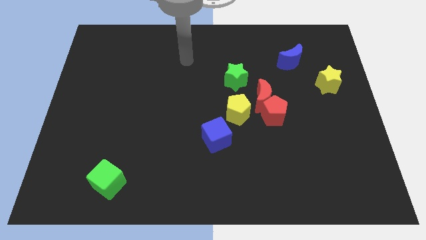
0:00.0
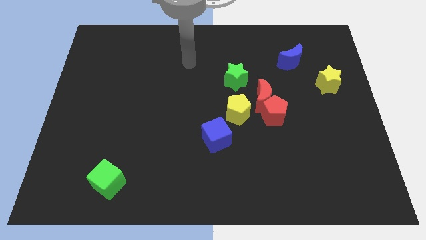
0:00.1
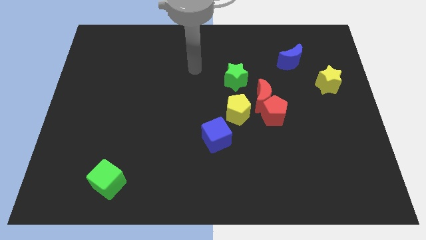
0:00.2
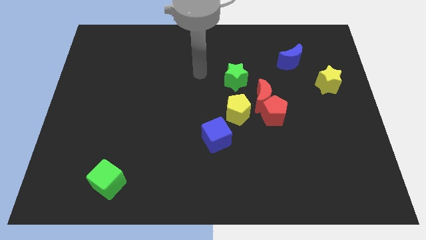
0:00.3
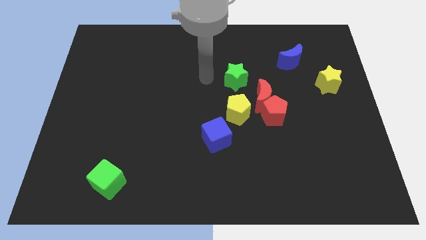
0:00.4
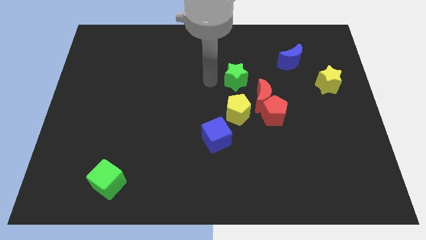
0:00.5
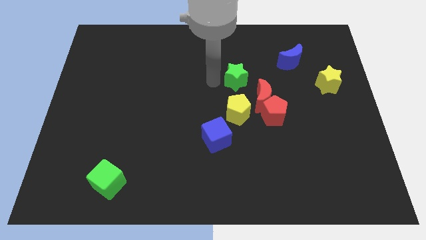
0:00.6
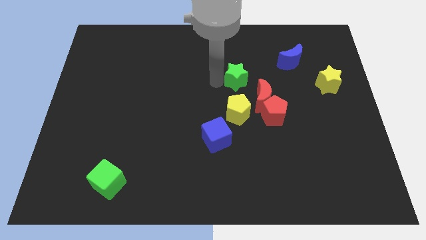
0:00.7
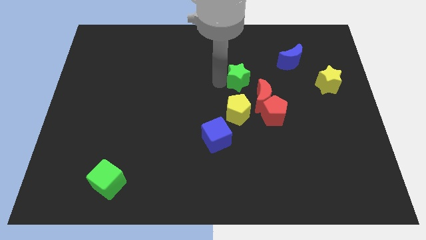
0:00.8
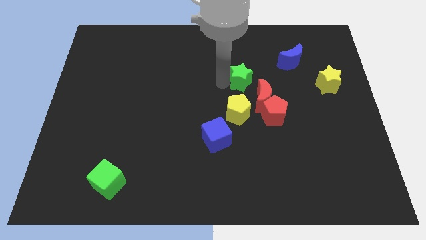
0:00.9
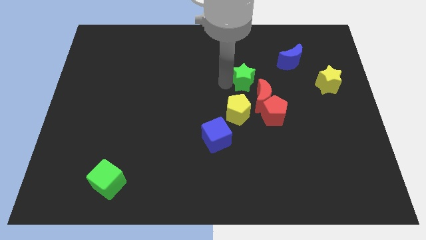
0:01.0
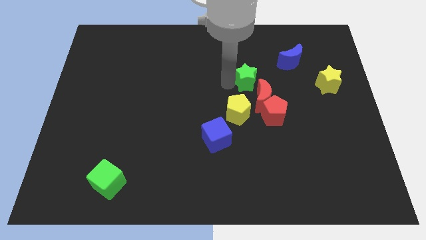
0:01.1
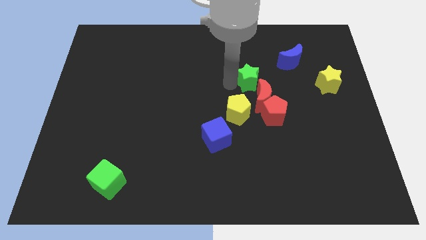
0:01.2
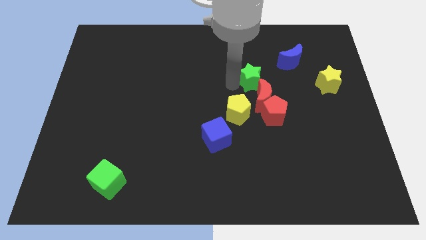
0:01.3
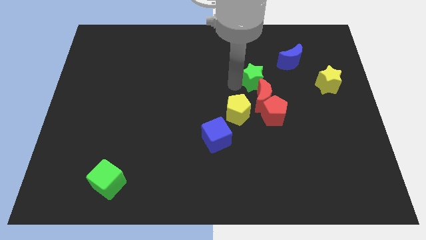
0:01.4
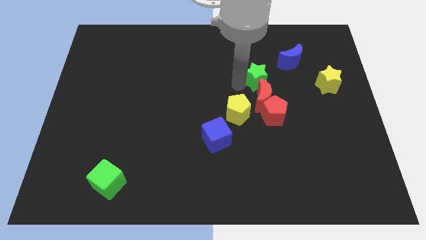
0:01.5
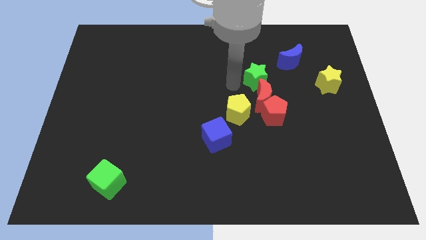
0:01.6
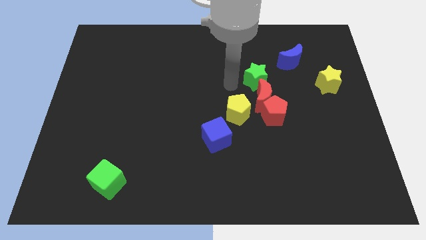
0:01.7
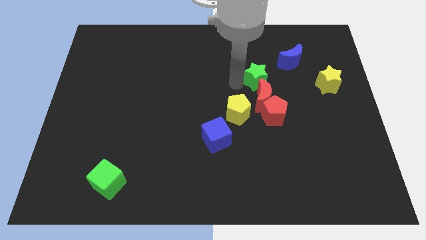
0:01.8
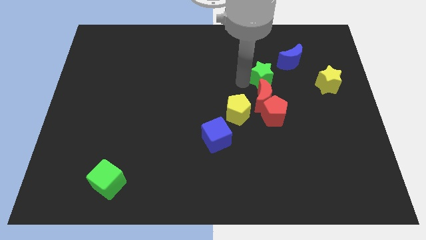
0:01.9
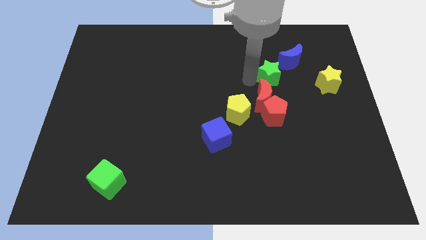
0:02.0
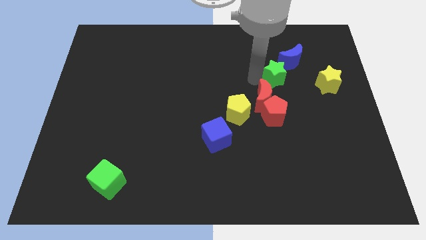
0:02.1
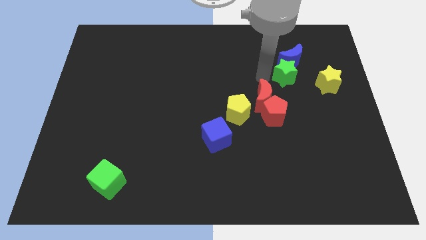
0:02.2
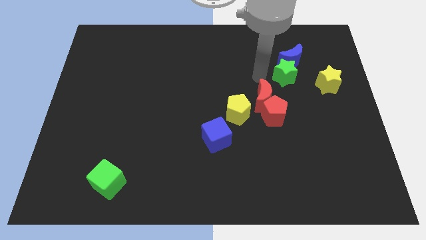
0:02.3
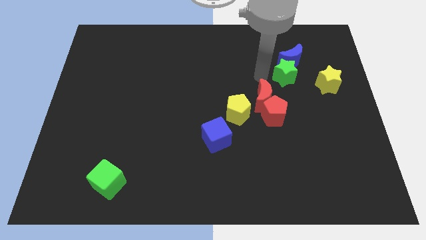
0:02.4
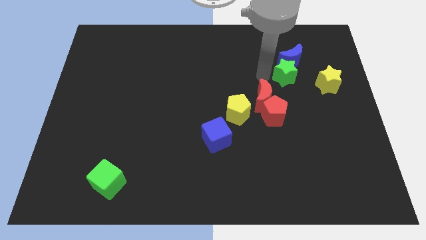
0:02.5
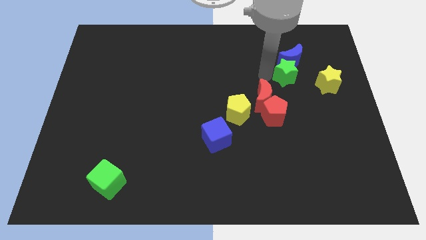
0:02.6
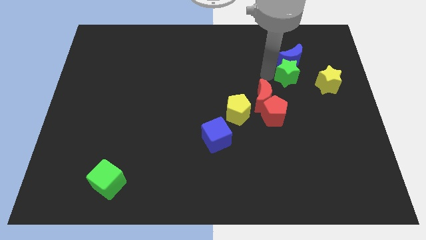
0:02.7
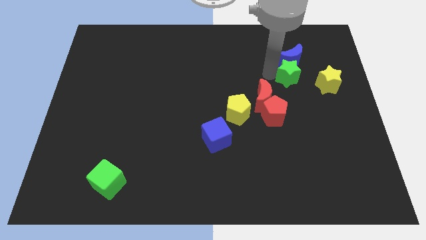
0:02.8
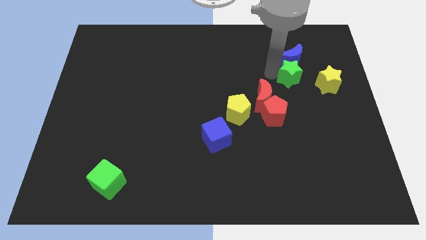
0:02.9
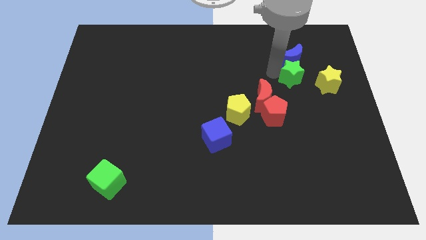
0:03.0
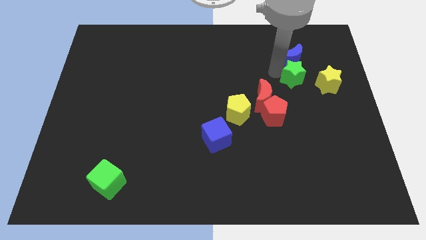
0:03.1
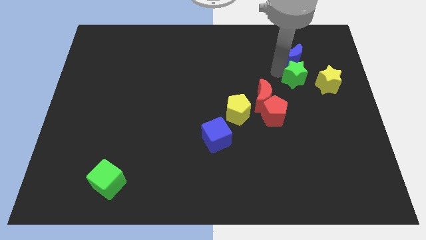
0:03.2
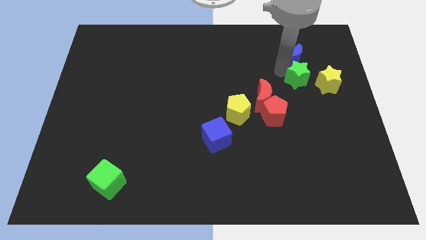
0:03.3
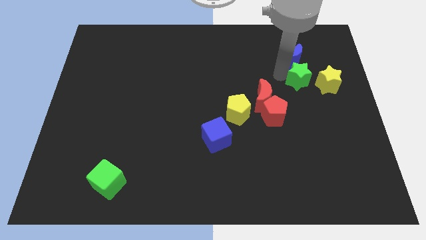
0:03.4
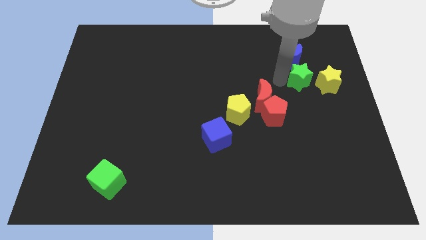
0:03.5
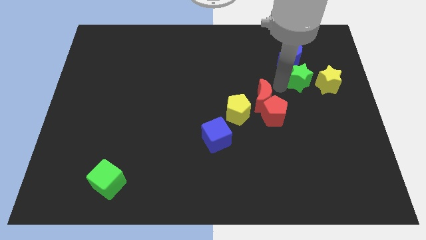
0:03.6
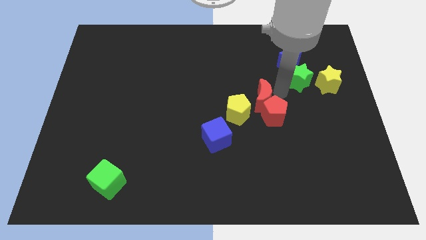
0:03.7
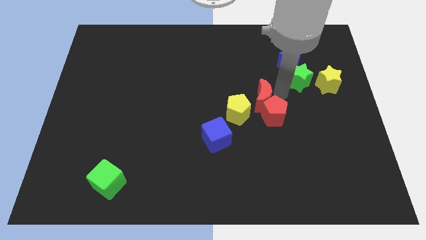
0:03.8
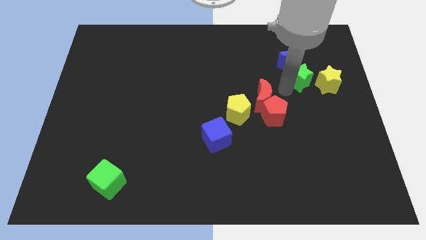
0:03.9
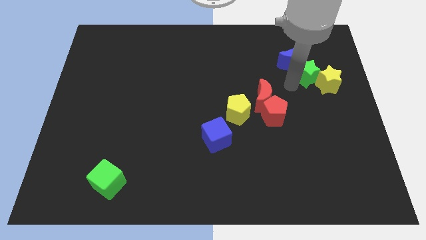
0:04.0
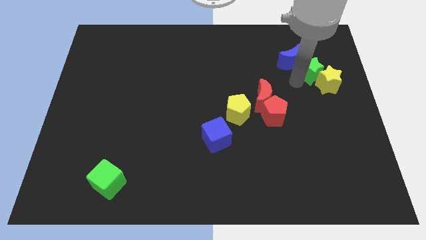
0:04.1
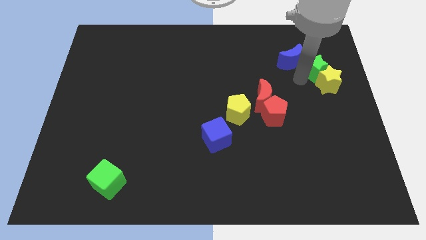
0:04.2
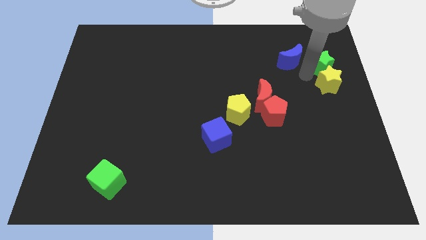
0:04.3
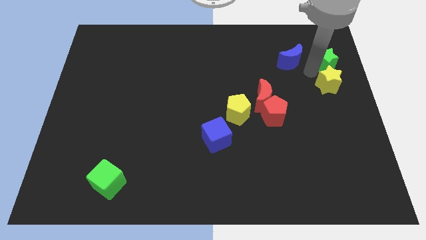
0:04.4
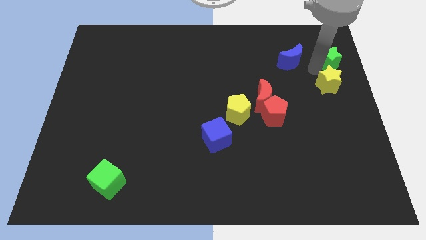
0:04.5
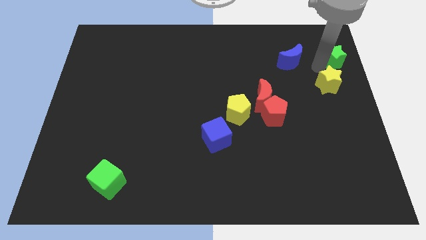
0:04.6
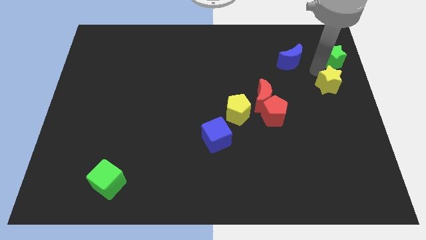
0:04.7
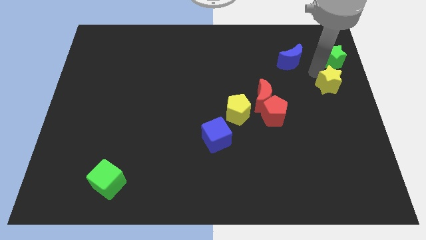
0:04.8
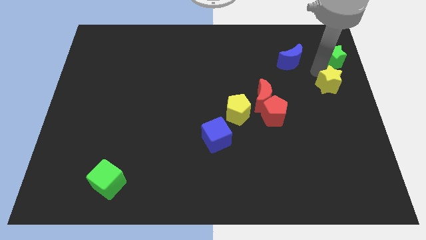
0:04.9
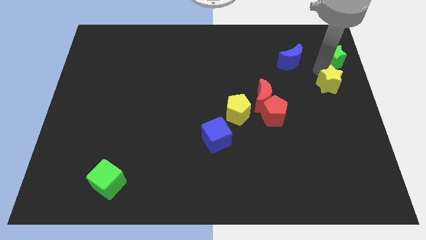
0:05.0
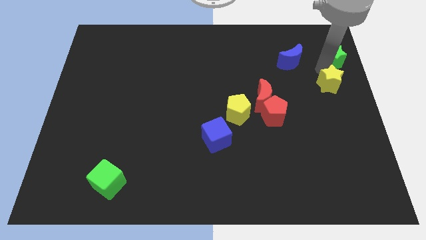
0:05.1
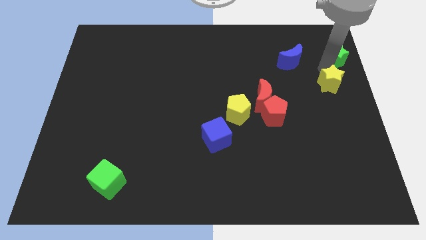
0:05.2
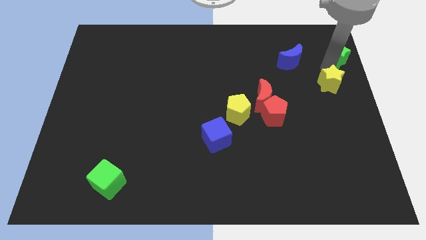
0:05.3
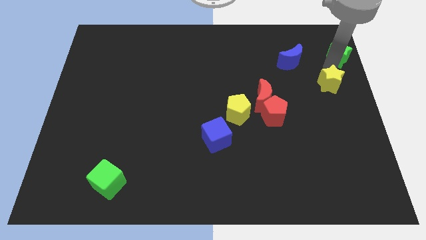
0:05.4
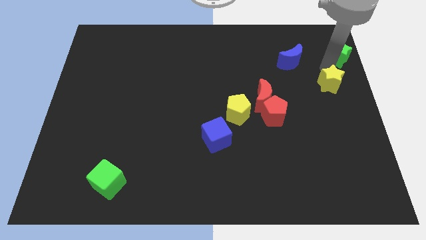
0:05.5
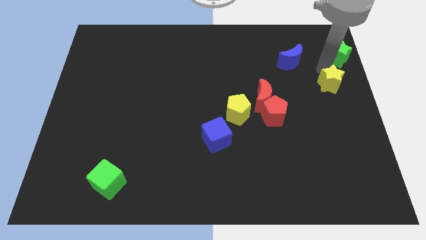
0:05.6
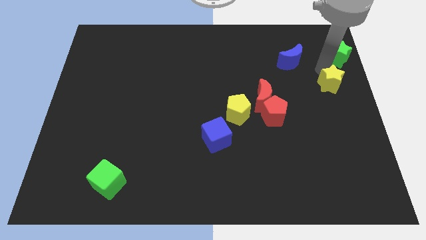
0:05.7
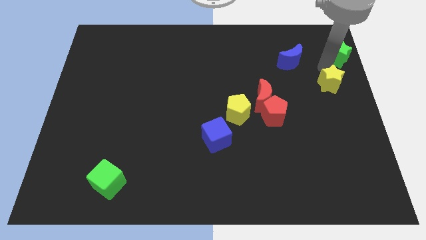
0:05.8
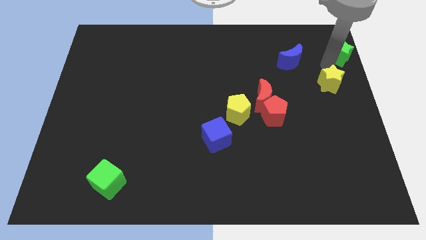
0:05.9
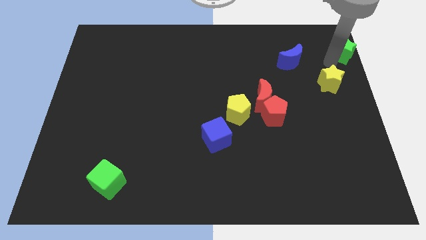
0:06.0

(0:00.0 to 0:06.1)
push the green star to the top right corner

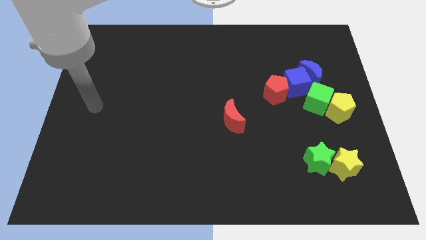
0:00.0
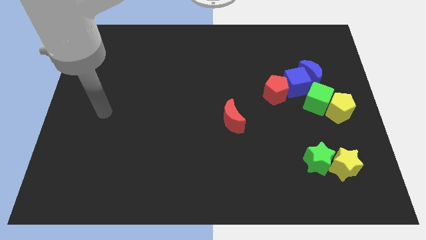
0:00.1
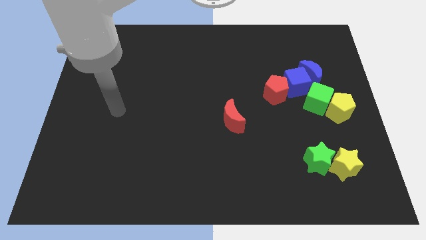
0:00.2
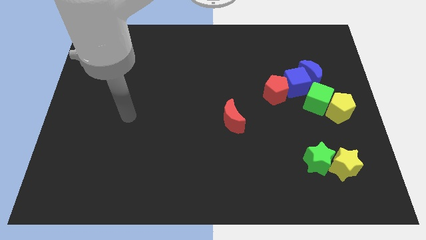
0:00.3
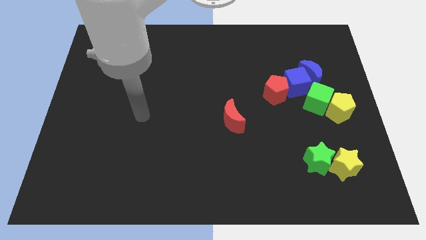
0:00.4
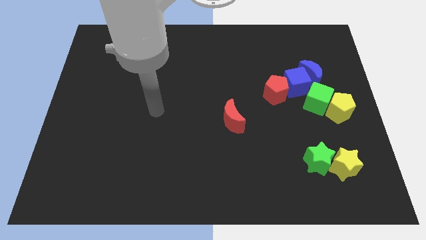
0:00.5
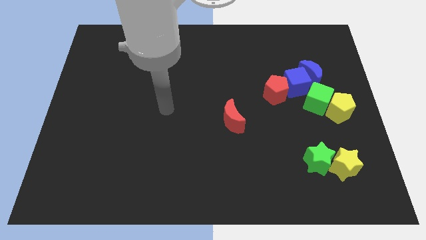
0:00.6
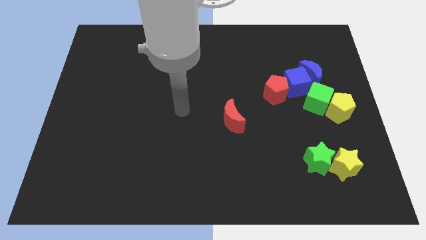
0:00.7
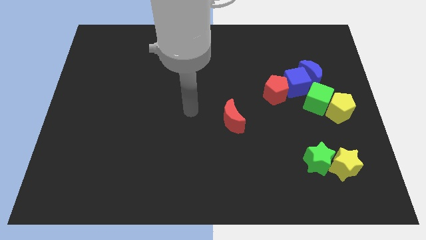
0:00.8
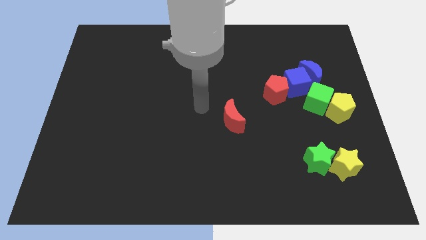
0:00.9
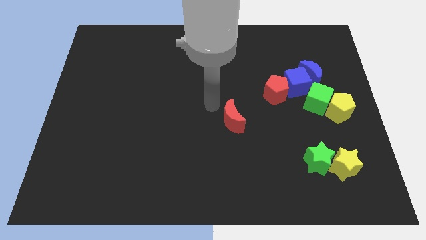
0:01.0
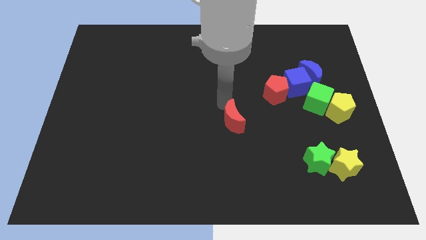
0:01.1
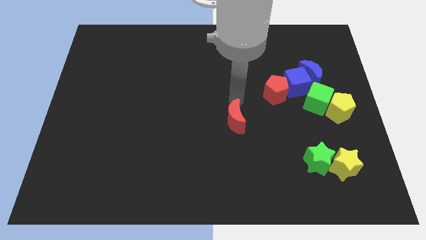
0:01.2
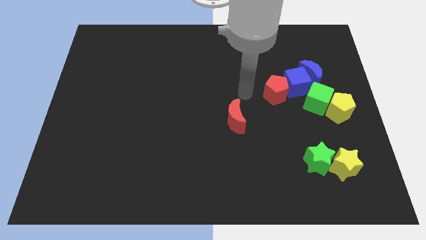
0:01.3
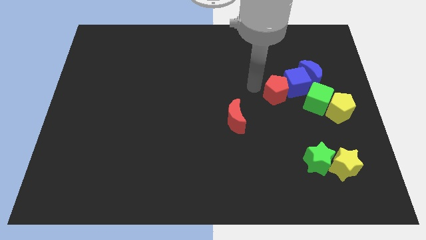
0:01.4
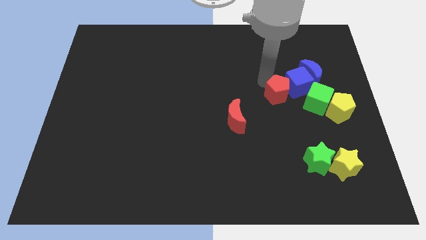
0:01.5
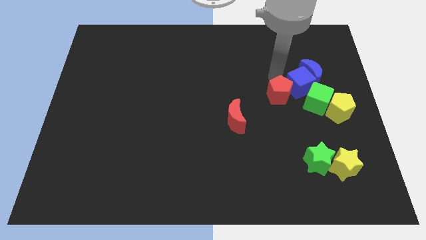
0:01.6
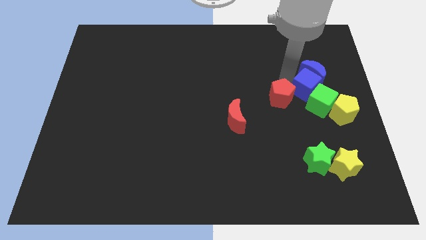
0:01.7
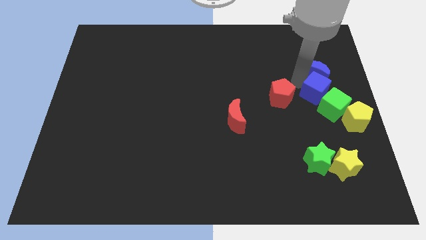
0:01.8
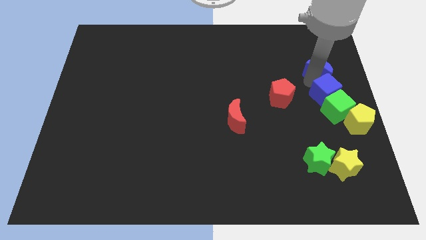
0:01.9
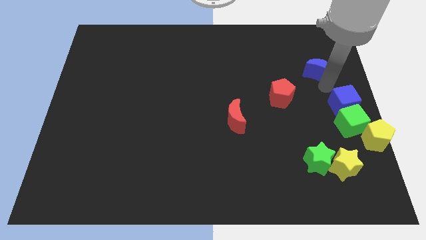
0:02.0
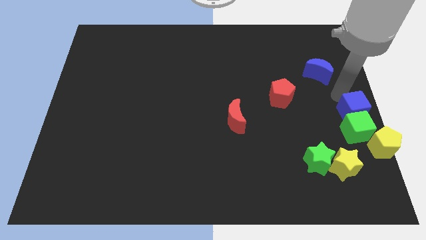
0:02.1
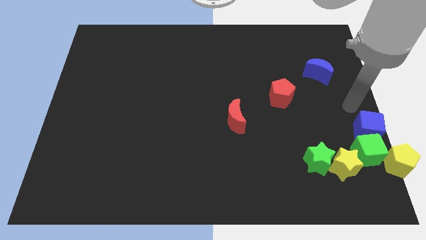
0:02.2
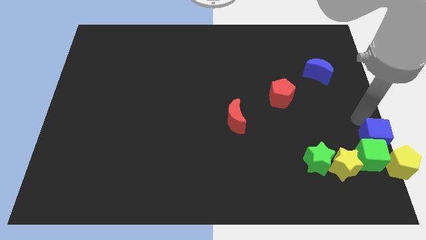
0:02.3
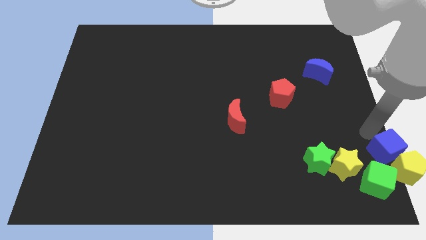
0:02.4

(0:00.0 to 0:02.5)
slide the green cube to the bottom right corner
